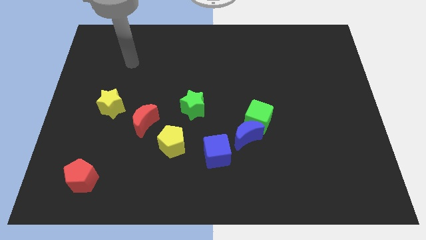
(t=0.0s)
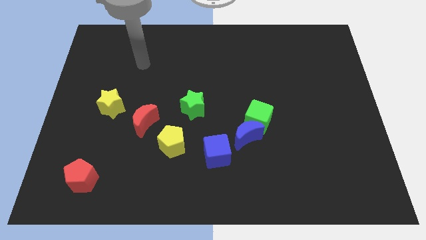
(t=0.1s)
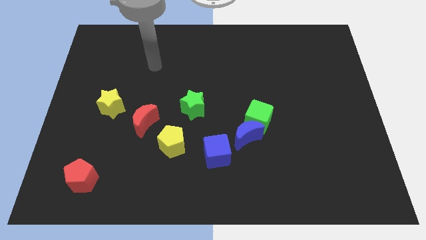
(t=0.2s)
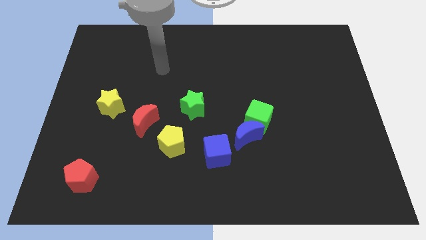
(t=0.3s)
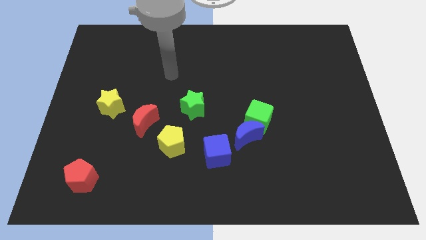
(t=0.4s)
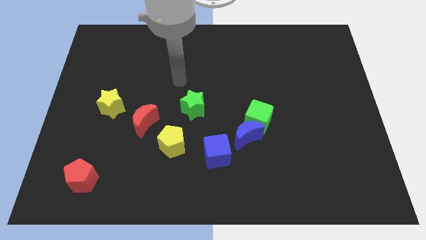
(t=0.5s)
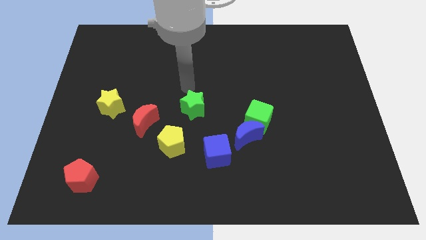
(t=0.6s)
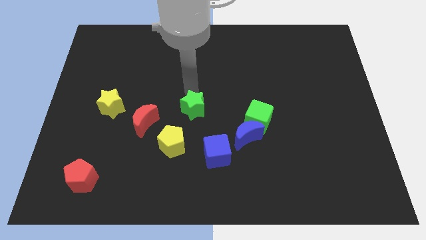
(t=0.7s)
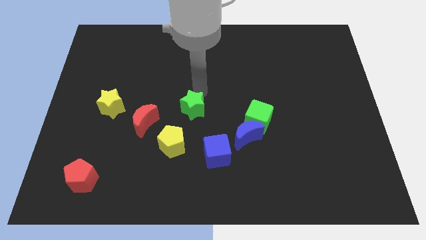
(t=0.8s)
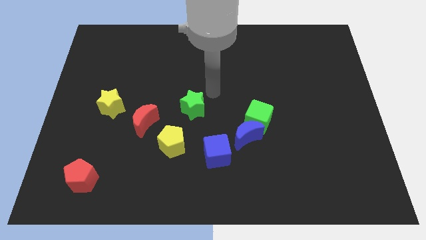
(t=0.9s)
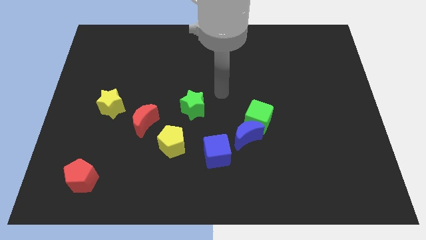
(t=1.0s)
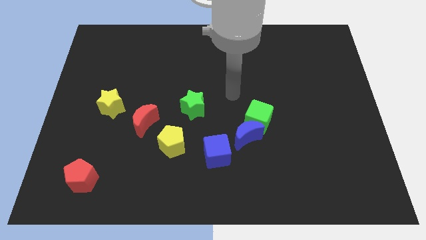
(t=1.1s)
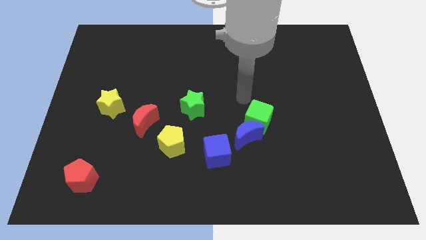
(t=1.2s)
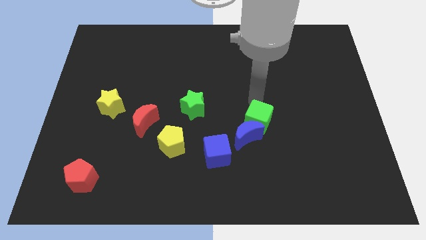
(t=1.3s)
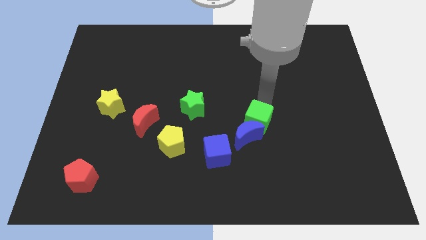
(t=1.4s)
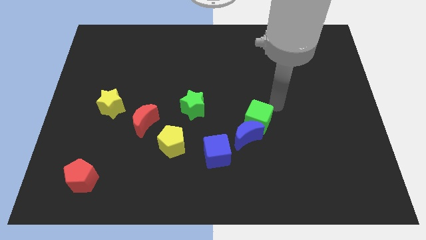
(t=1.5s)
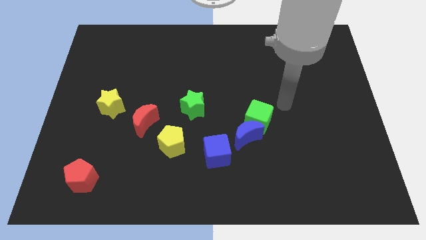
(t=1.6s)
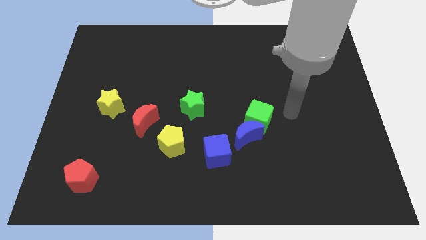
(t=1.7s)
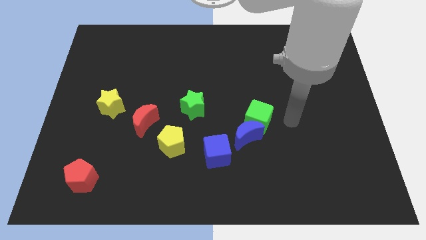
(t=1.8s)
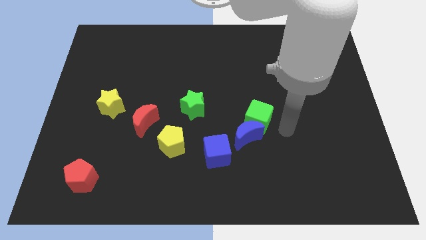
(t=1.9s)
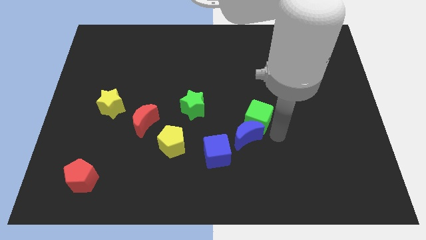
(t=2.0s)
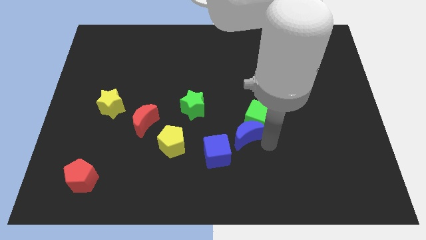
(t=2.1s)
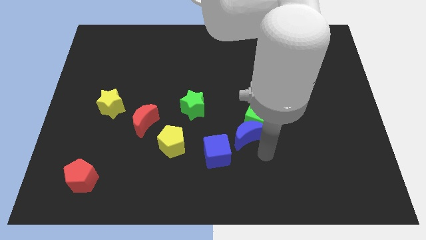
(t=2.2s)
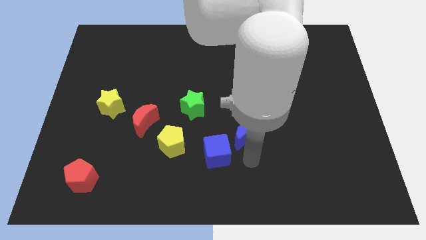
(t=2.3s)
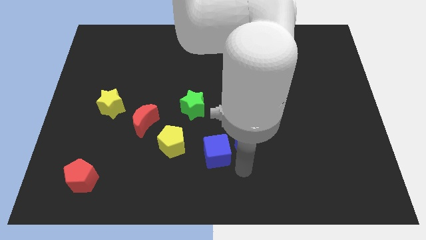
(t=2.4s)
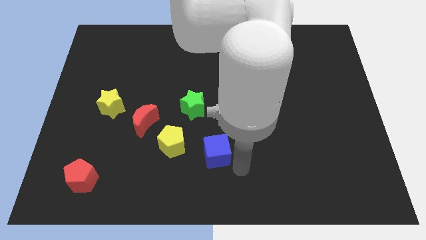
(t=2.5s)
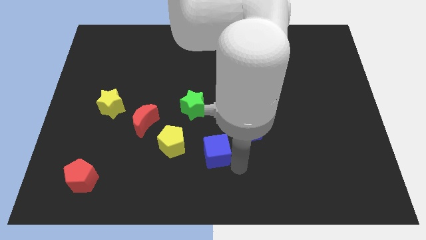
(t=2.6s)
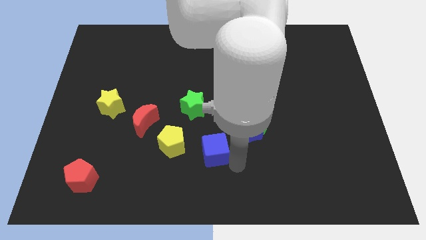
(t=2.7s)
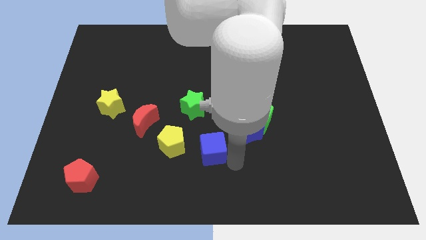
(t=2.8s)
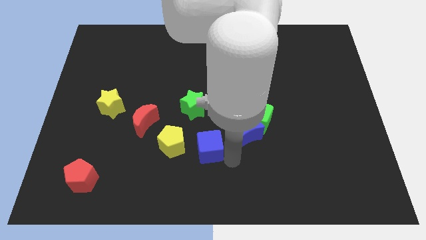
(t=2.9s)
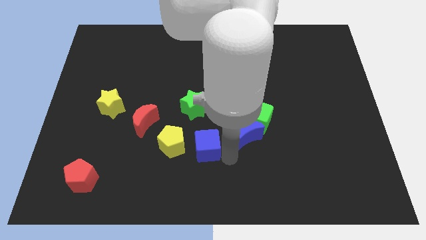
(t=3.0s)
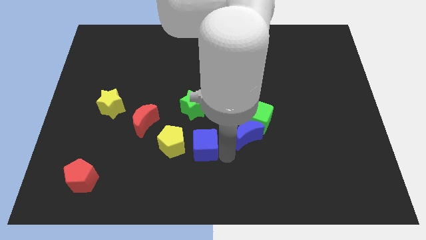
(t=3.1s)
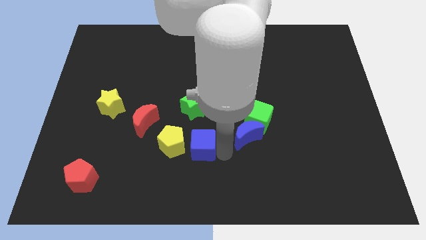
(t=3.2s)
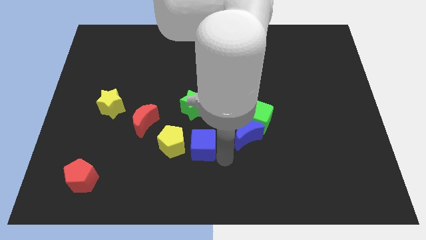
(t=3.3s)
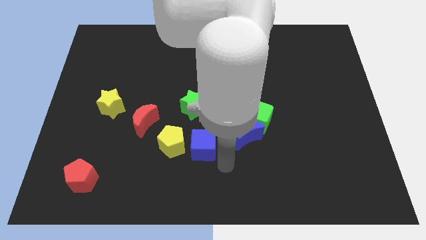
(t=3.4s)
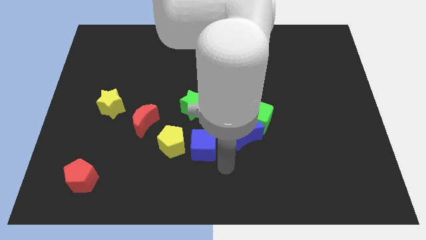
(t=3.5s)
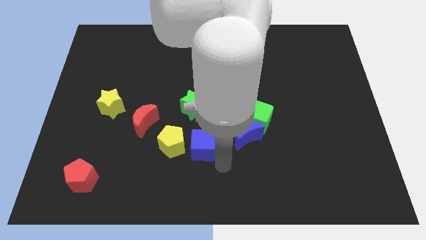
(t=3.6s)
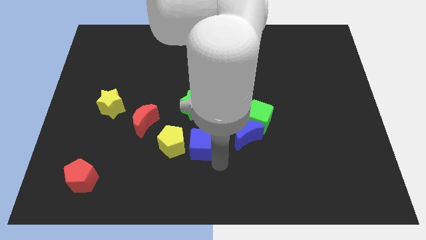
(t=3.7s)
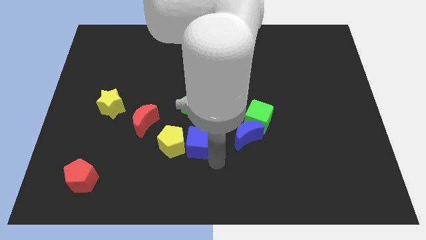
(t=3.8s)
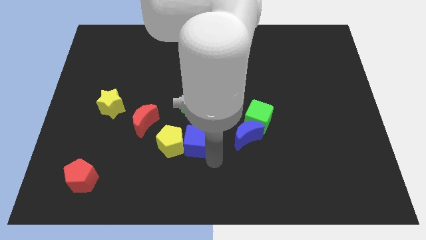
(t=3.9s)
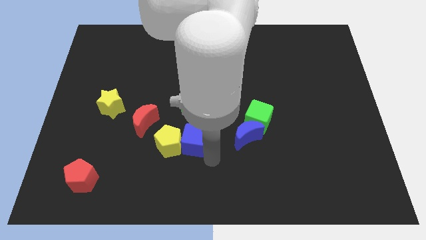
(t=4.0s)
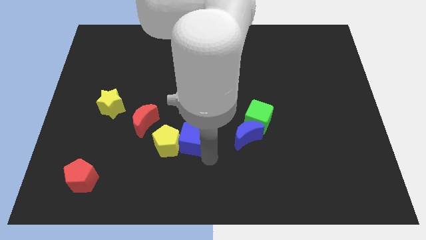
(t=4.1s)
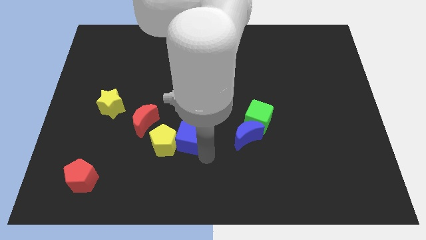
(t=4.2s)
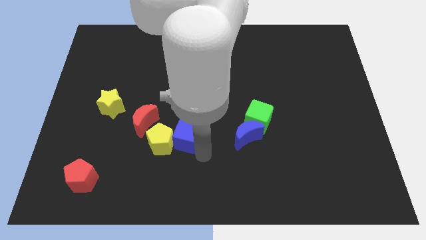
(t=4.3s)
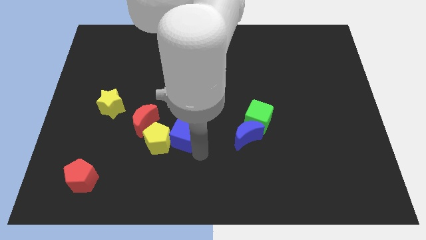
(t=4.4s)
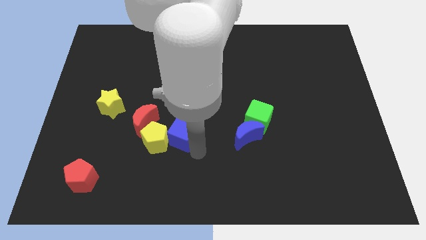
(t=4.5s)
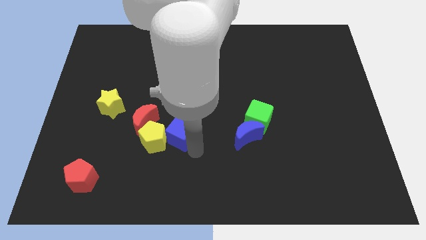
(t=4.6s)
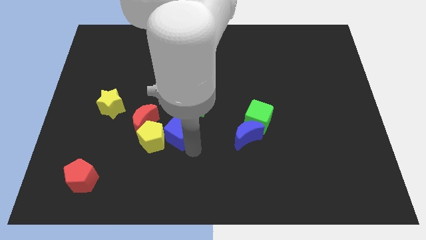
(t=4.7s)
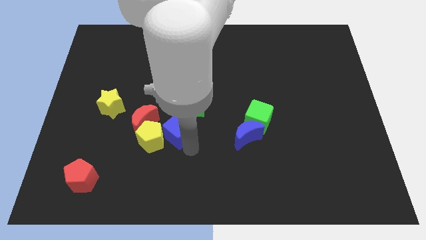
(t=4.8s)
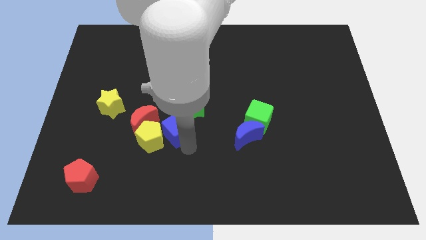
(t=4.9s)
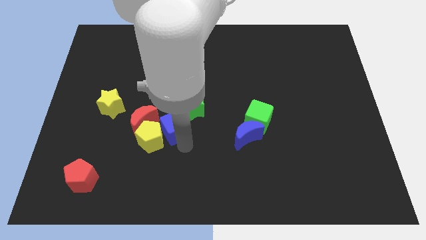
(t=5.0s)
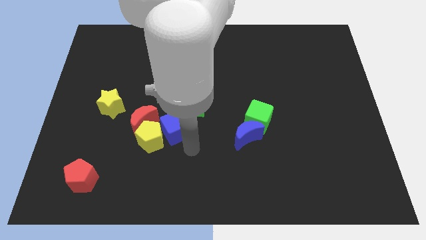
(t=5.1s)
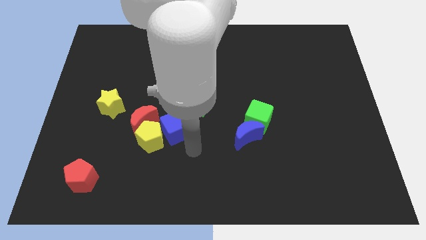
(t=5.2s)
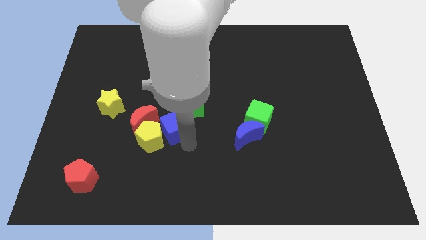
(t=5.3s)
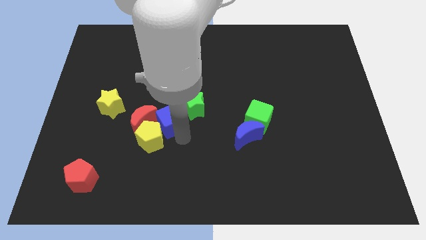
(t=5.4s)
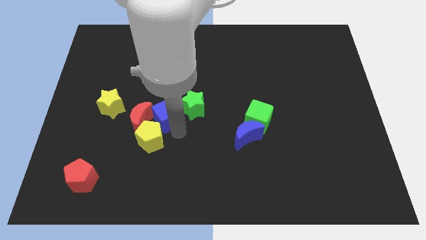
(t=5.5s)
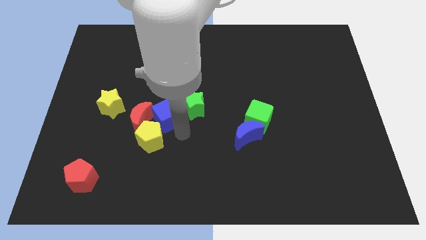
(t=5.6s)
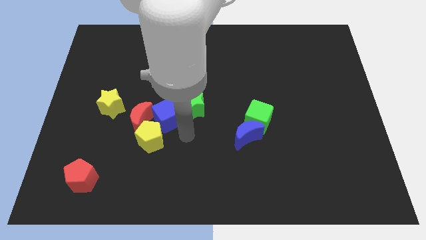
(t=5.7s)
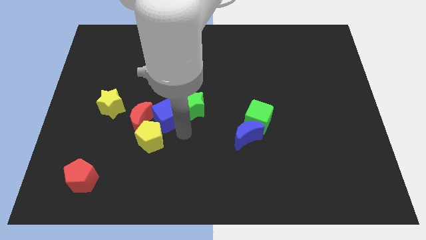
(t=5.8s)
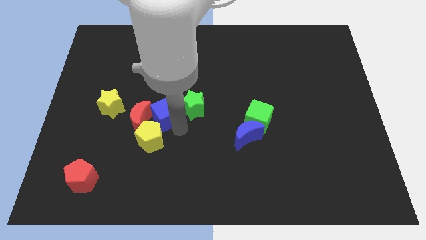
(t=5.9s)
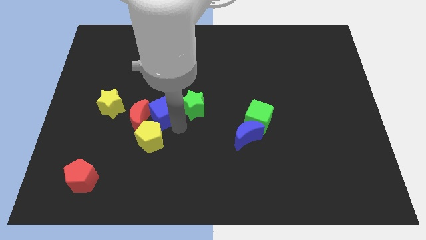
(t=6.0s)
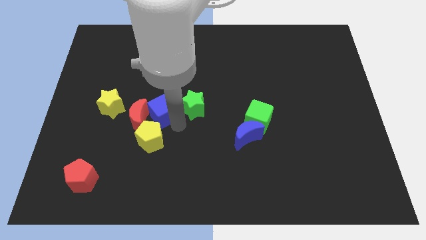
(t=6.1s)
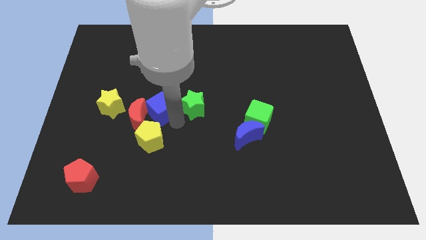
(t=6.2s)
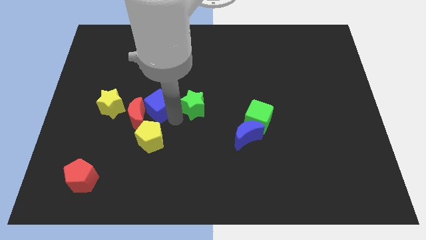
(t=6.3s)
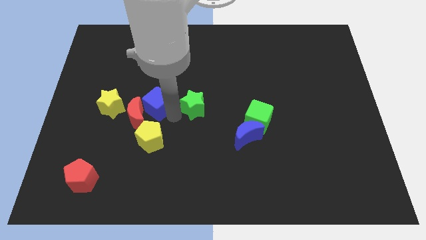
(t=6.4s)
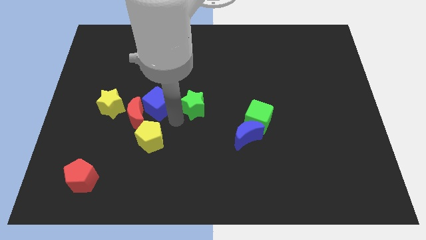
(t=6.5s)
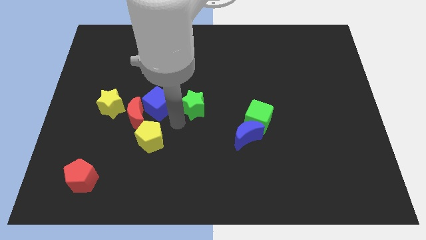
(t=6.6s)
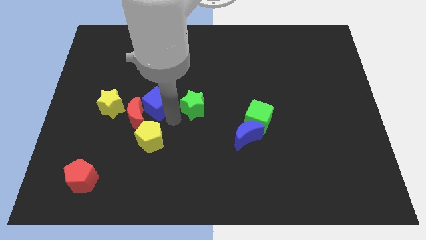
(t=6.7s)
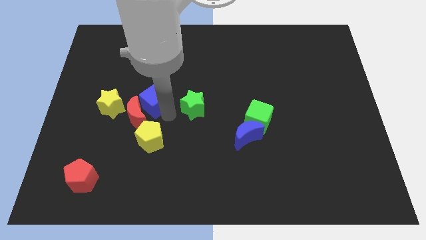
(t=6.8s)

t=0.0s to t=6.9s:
slide the blue cube upwards and left diagonally

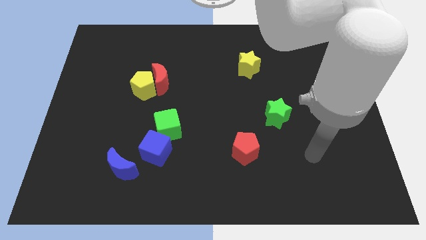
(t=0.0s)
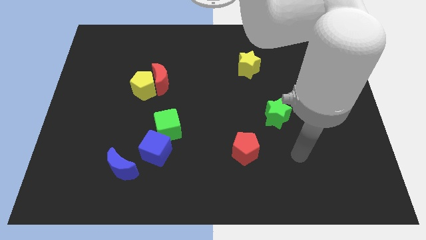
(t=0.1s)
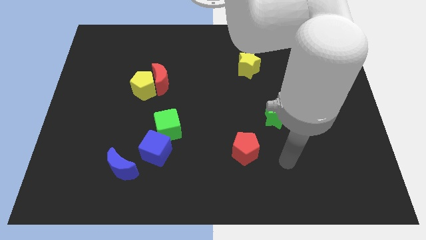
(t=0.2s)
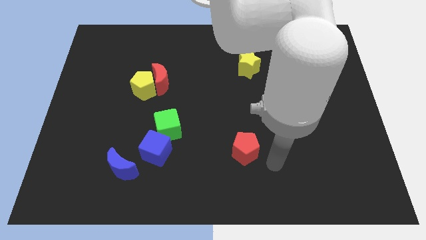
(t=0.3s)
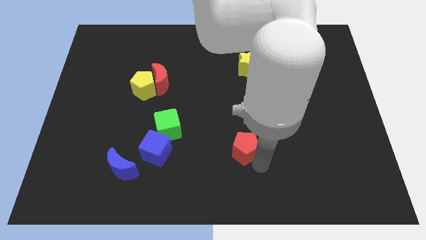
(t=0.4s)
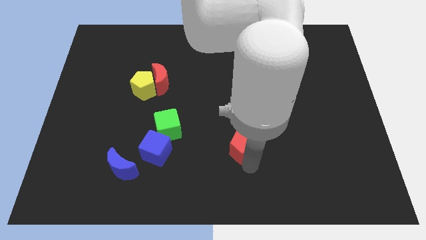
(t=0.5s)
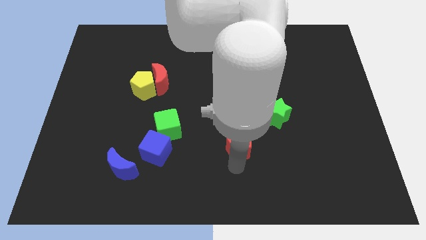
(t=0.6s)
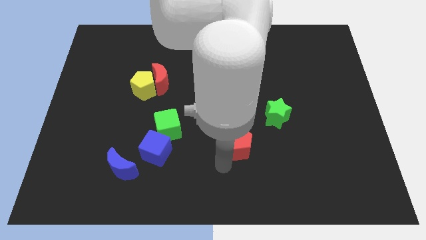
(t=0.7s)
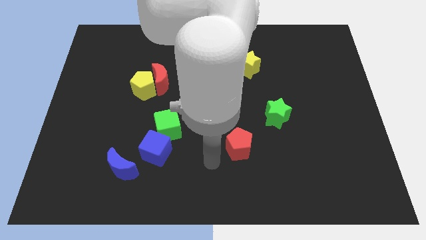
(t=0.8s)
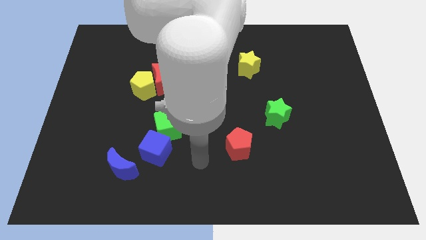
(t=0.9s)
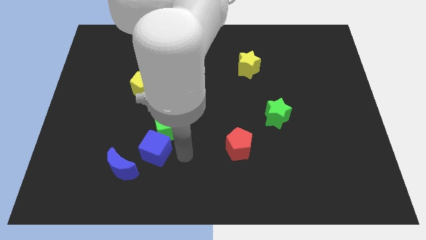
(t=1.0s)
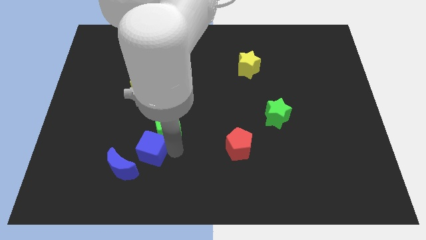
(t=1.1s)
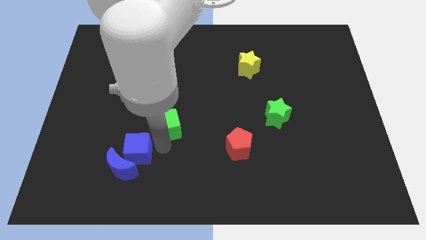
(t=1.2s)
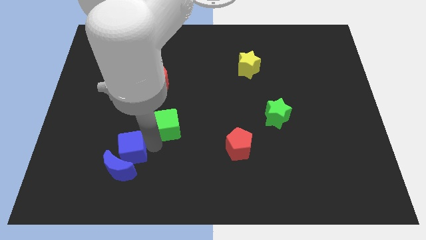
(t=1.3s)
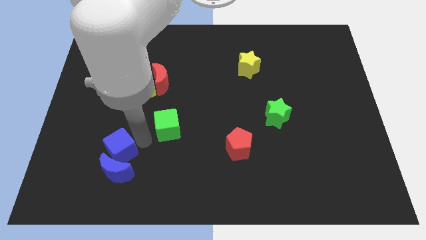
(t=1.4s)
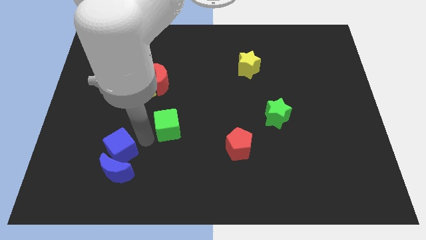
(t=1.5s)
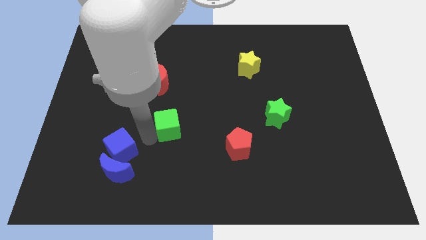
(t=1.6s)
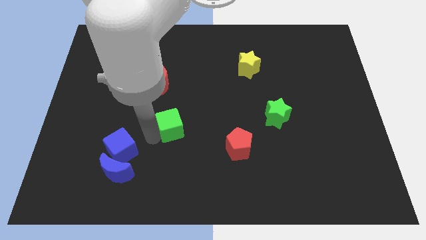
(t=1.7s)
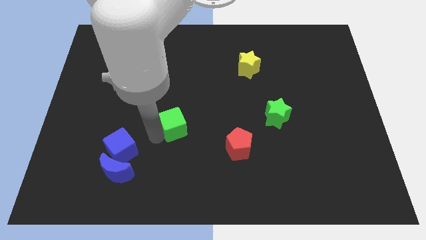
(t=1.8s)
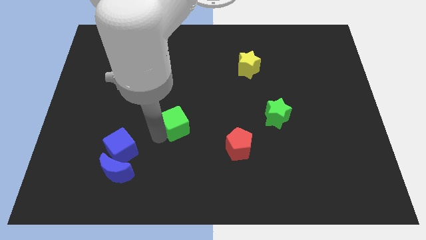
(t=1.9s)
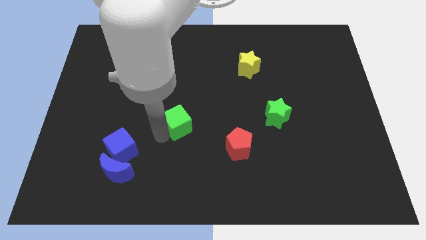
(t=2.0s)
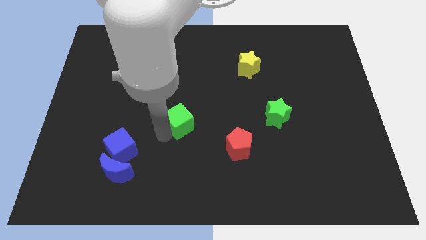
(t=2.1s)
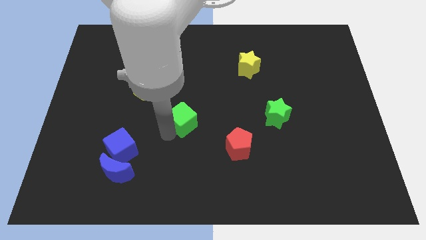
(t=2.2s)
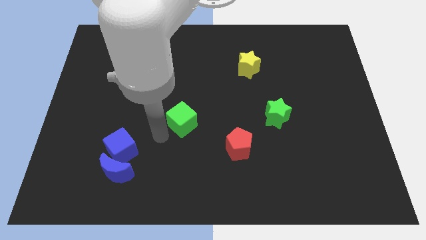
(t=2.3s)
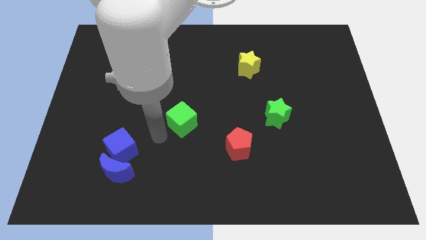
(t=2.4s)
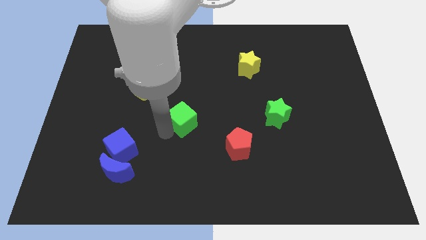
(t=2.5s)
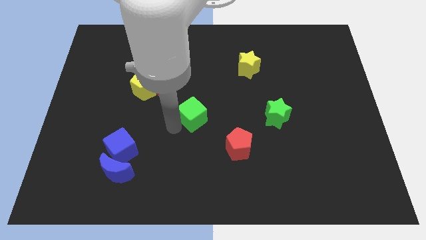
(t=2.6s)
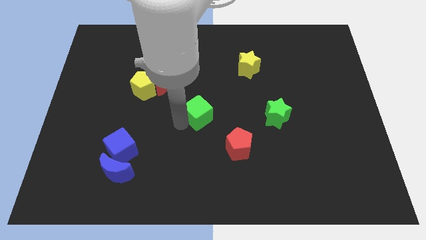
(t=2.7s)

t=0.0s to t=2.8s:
slightly move the green cube up and to the right
